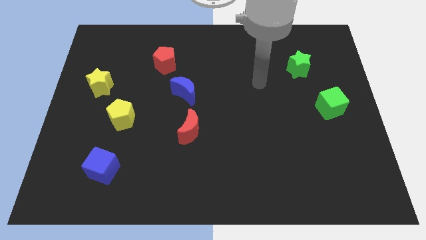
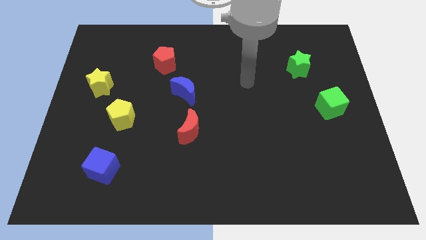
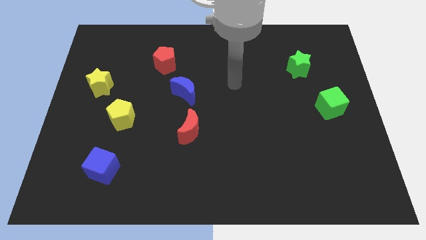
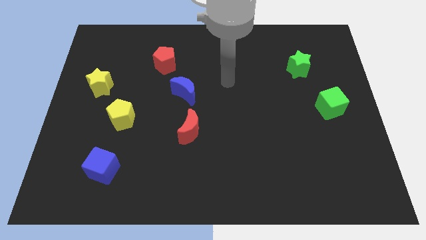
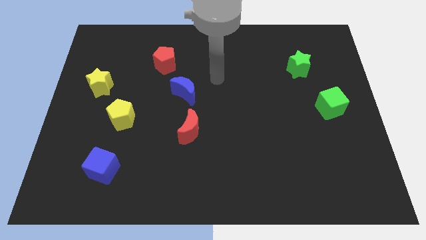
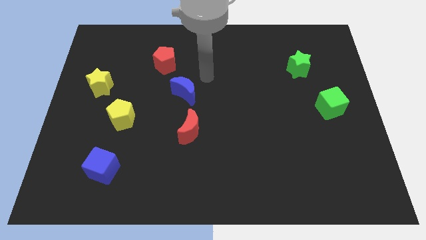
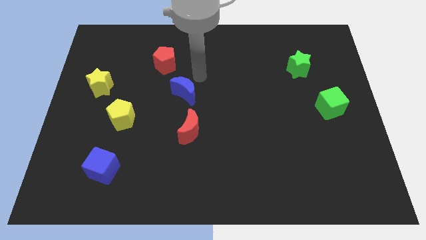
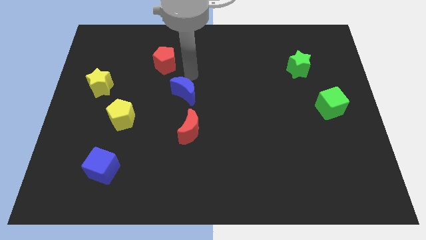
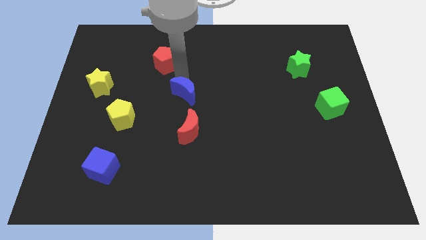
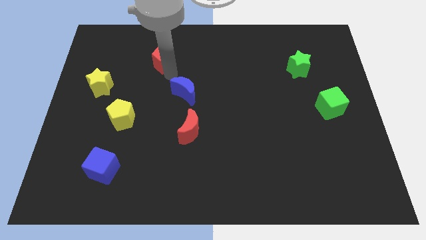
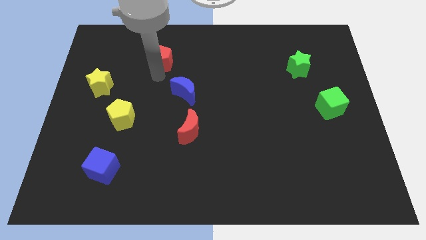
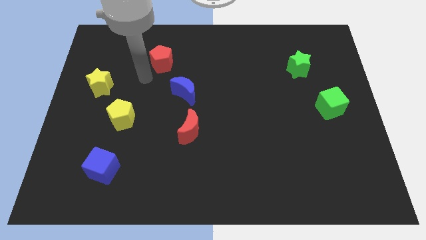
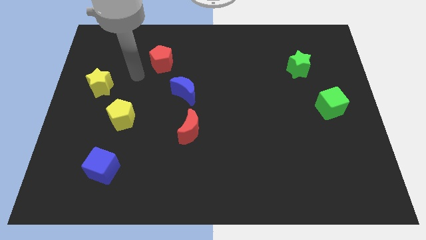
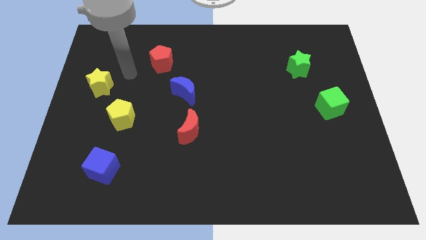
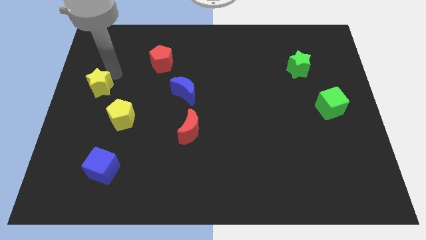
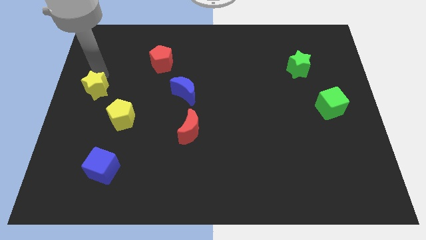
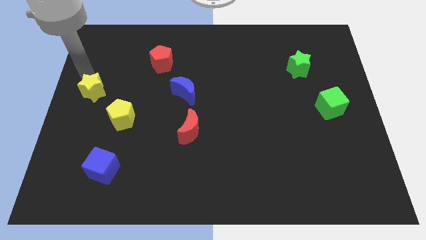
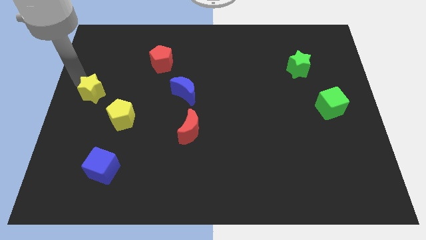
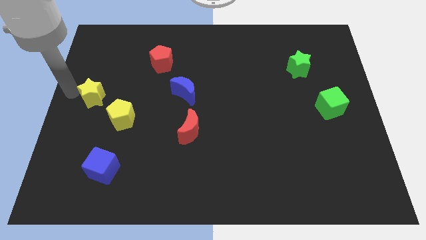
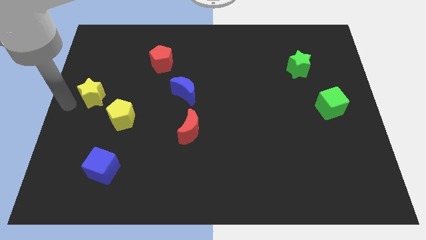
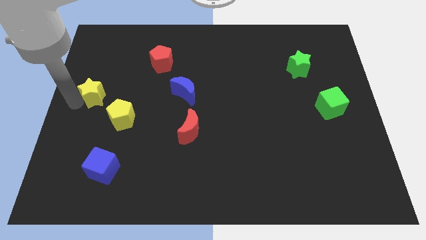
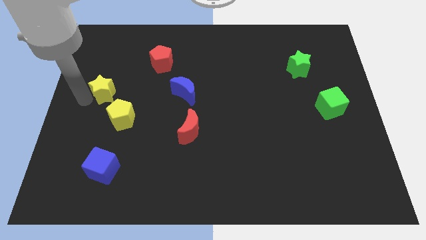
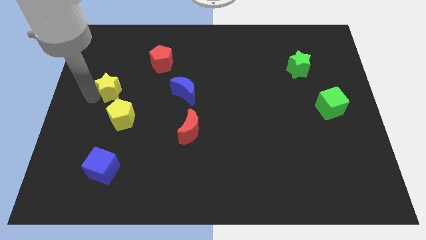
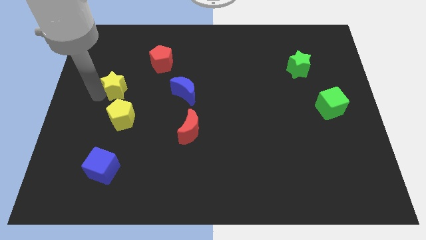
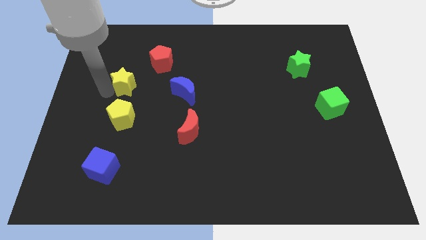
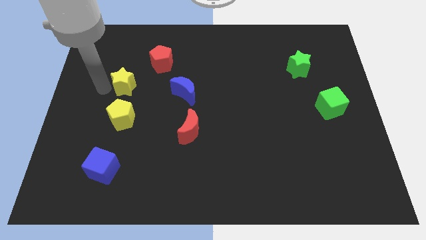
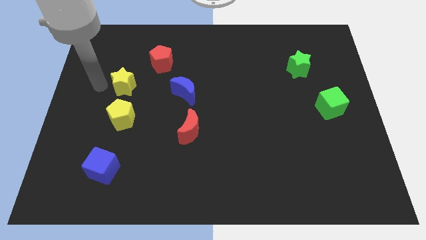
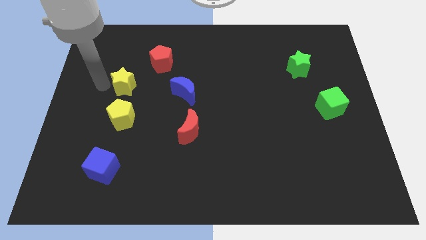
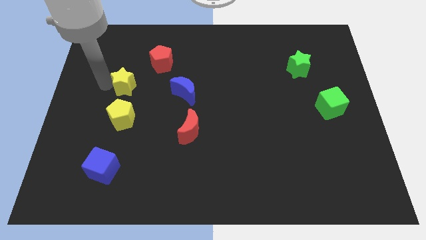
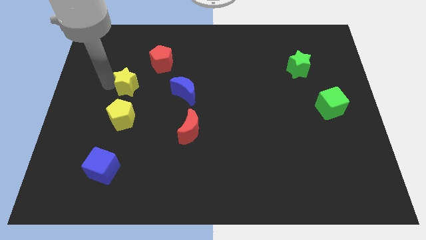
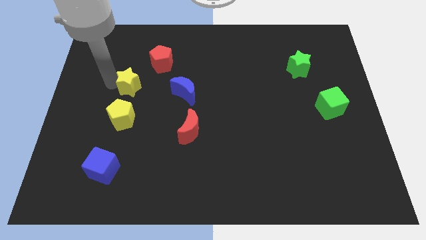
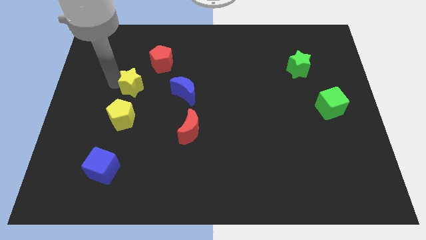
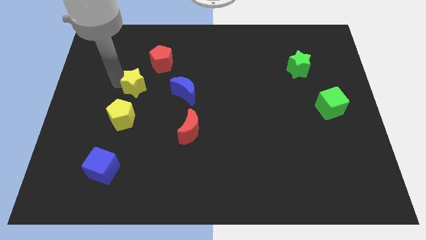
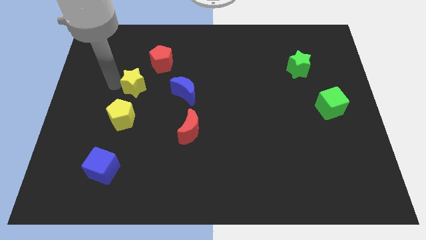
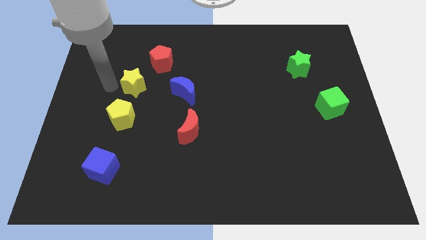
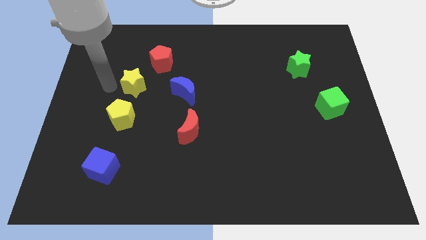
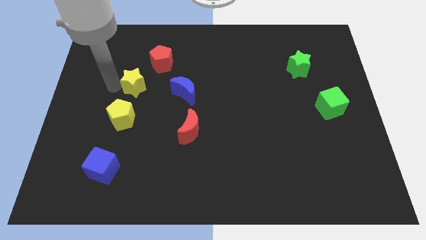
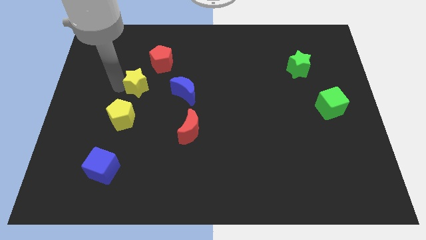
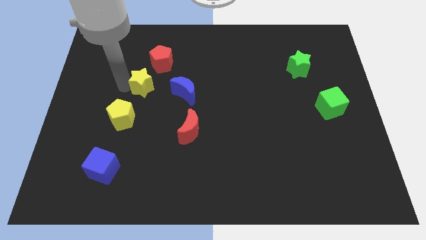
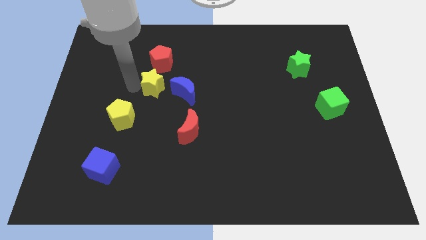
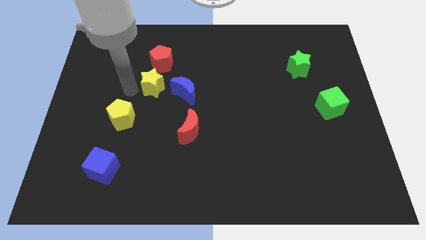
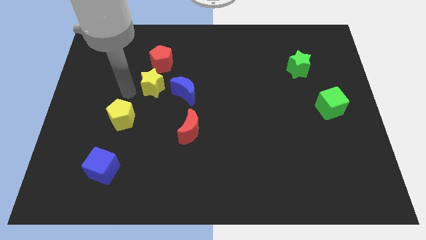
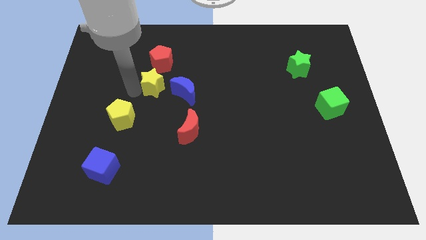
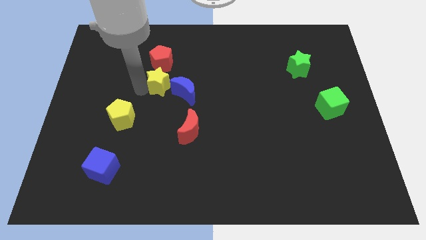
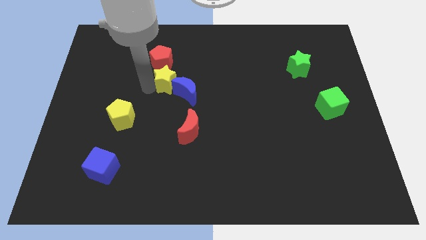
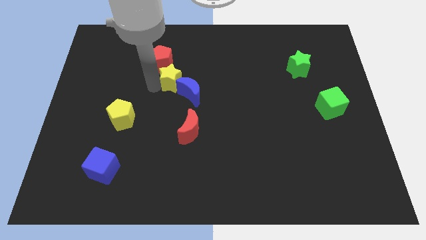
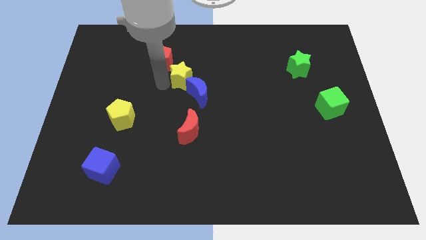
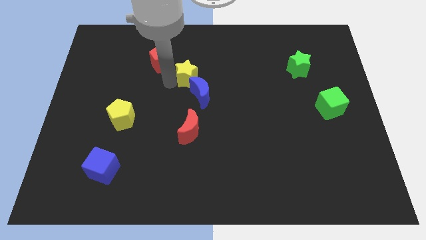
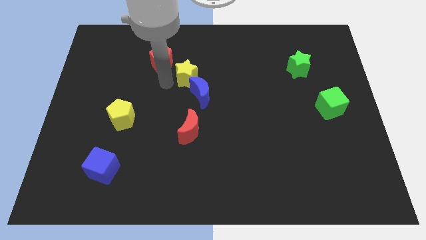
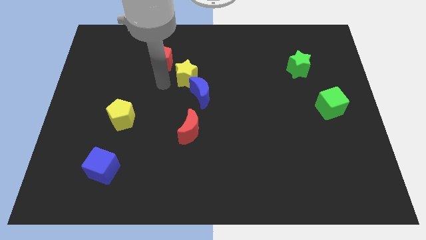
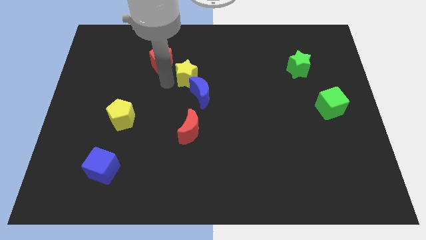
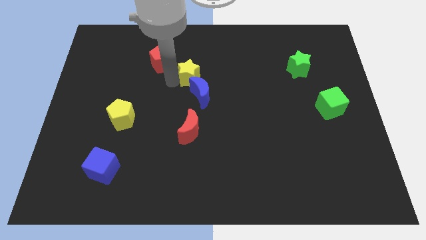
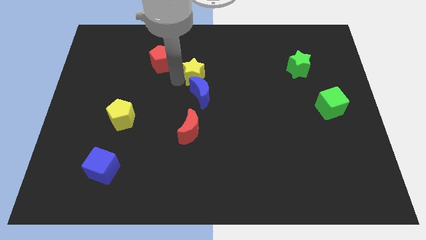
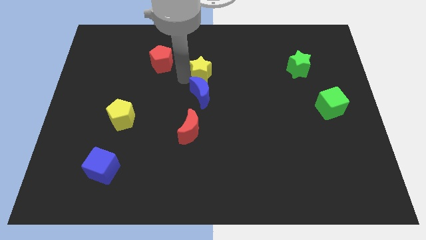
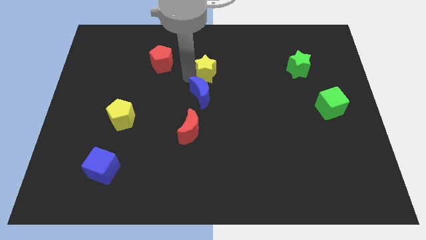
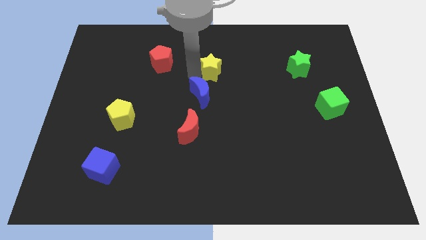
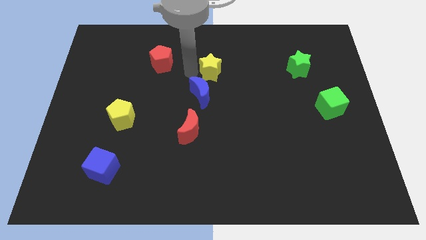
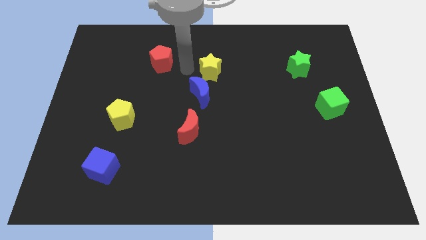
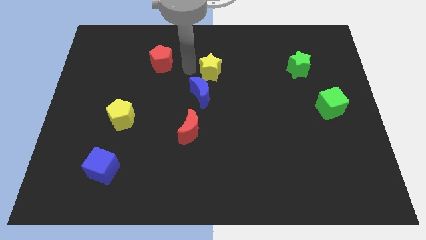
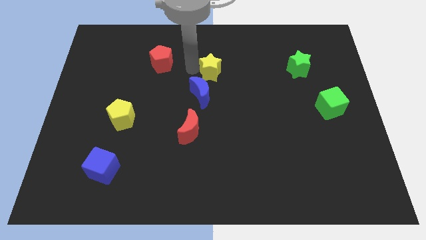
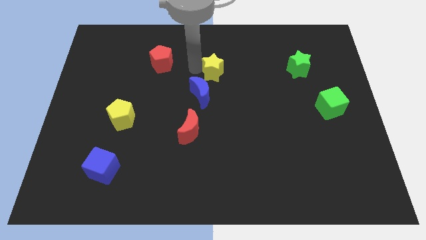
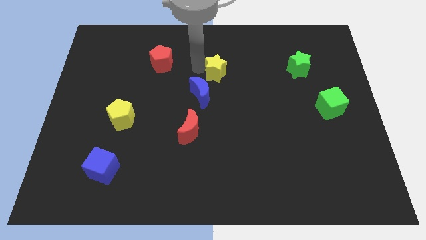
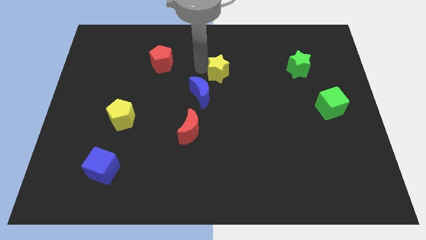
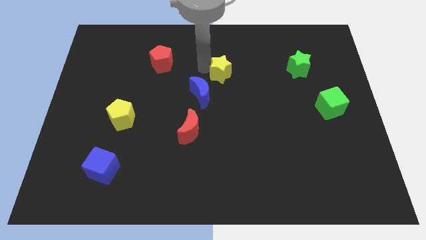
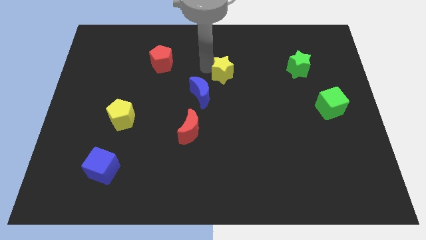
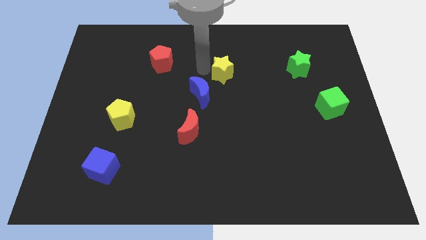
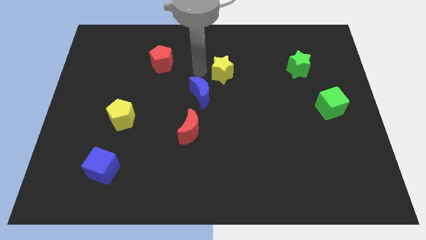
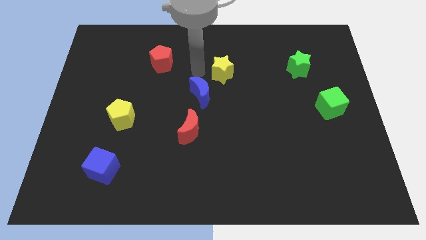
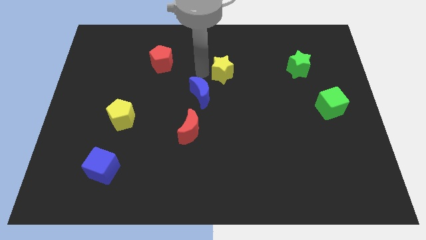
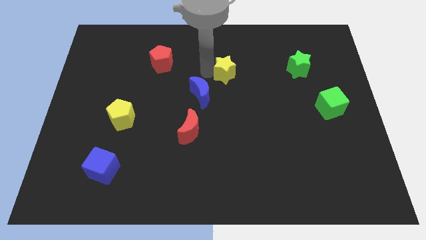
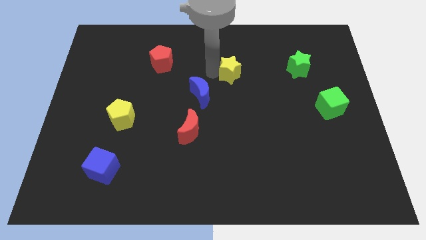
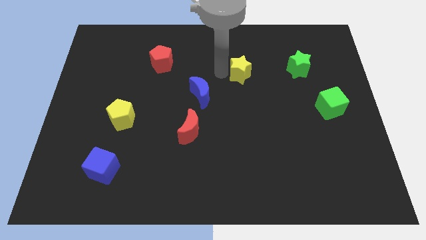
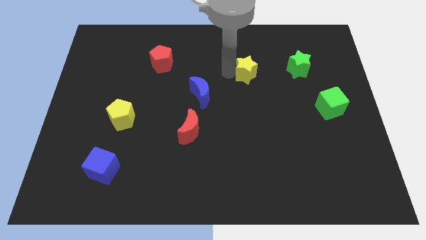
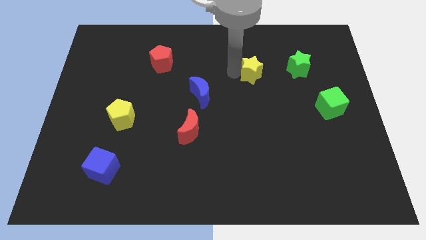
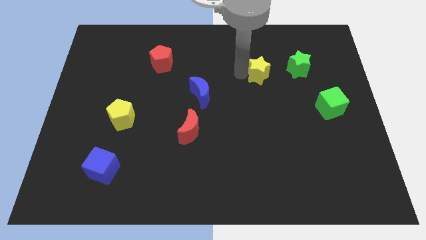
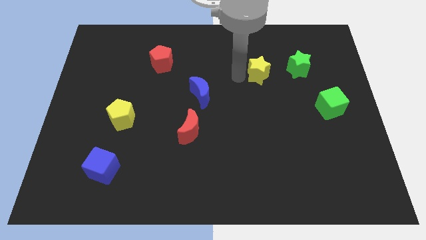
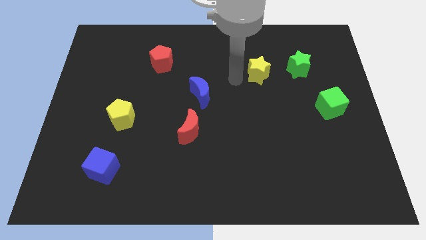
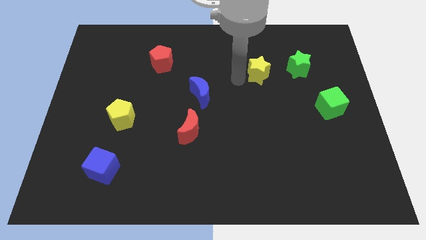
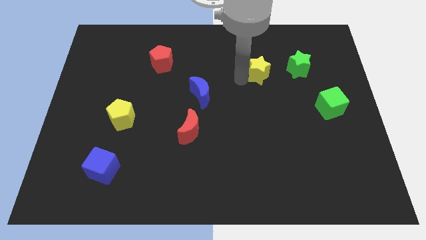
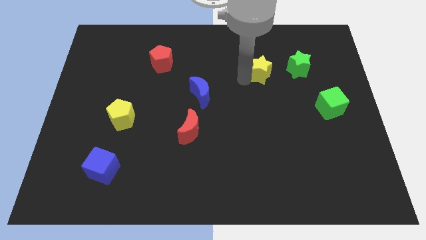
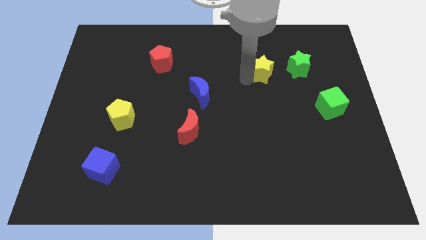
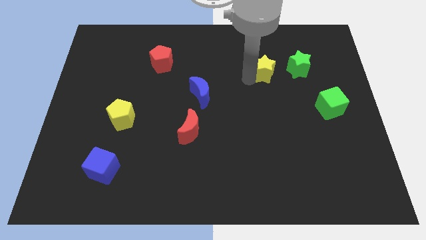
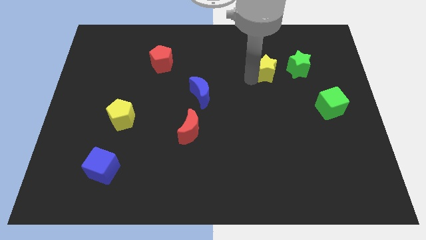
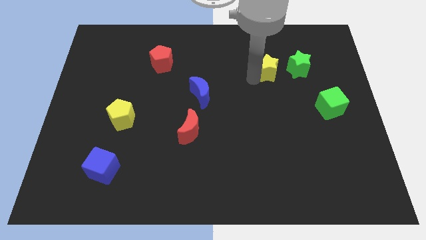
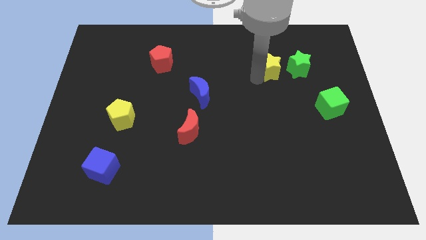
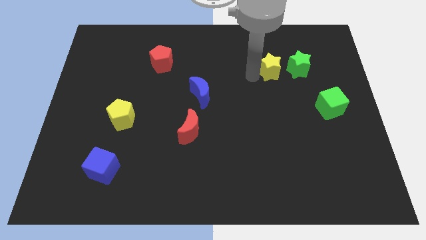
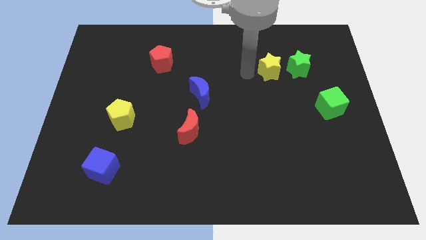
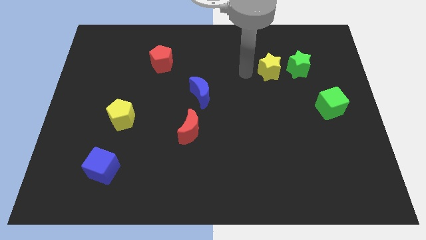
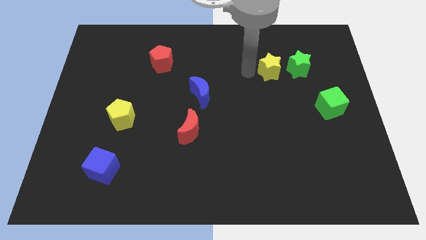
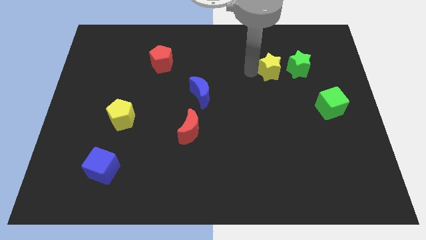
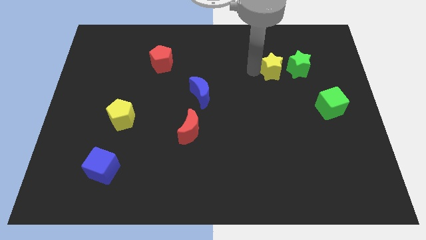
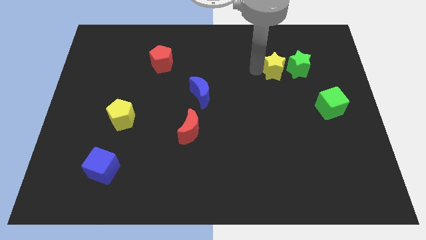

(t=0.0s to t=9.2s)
move the yellow star next to the green star
